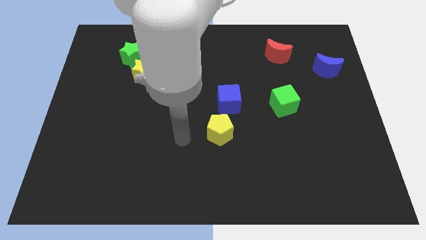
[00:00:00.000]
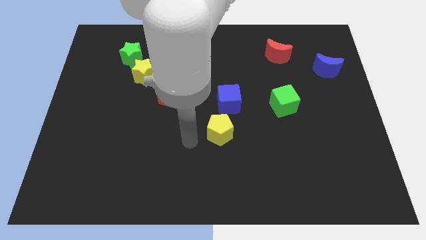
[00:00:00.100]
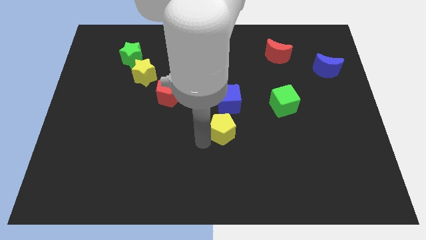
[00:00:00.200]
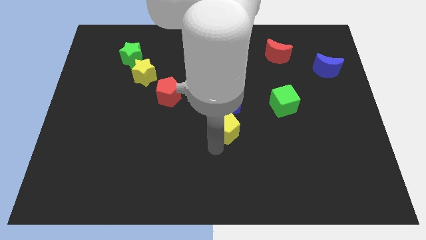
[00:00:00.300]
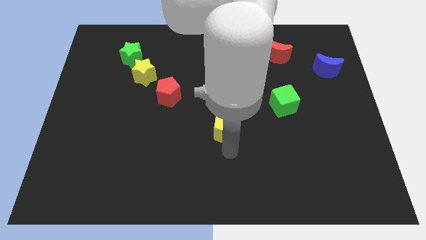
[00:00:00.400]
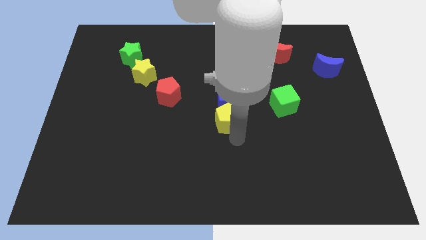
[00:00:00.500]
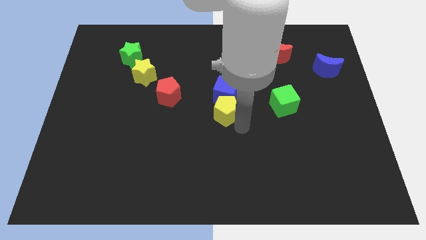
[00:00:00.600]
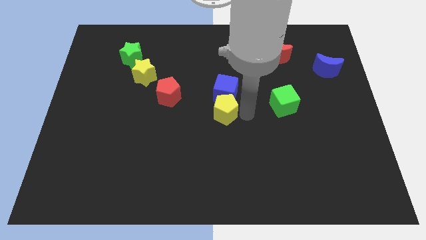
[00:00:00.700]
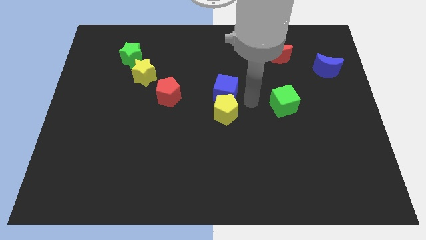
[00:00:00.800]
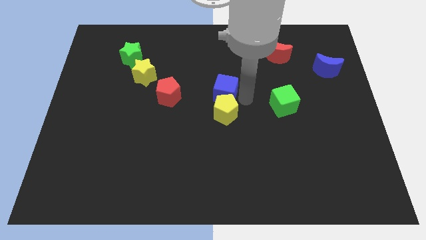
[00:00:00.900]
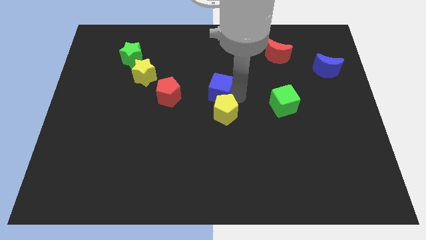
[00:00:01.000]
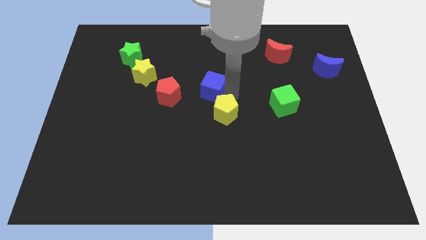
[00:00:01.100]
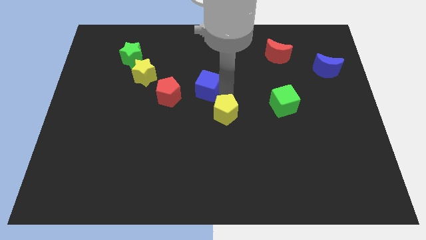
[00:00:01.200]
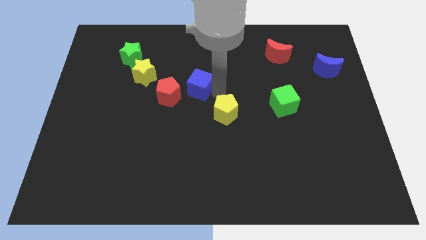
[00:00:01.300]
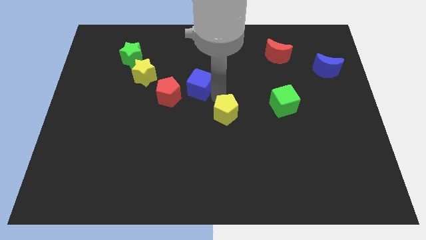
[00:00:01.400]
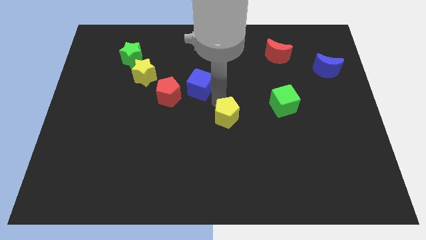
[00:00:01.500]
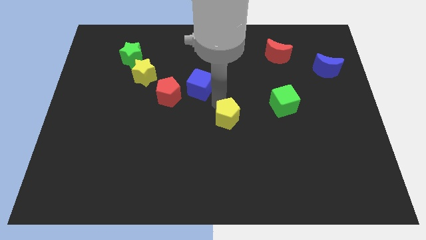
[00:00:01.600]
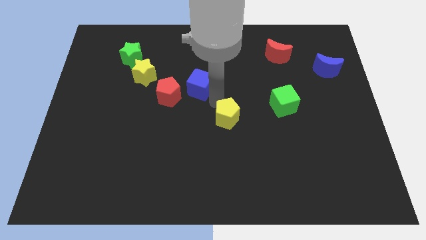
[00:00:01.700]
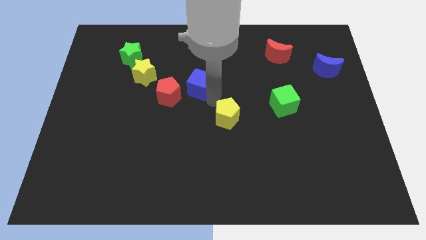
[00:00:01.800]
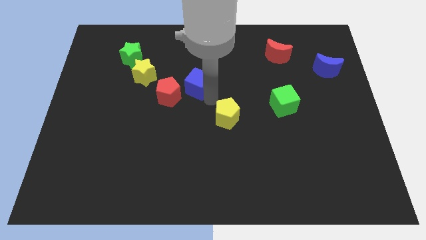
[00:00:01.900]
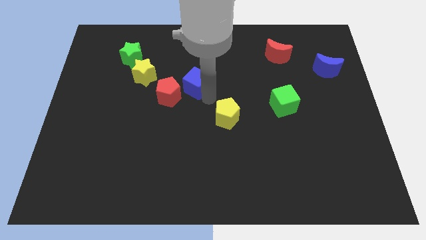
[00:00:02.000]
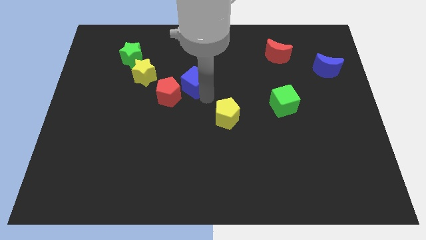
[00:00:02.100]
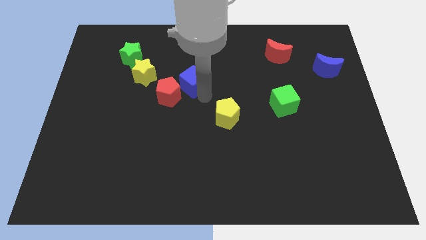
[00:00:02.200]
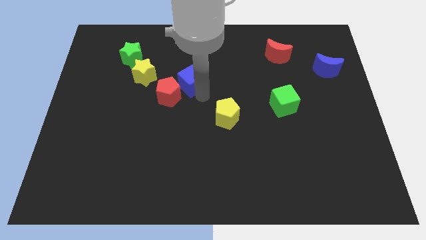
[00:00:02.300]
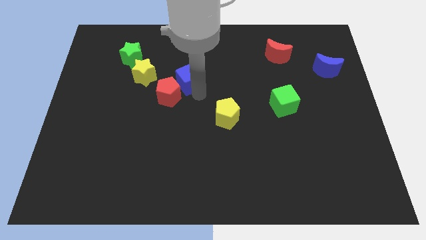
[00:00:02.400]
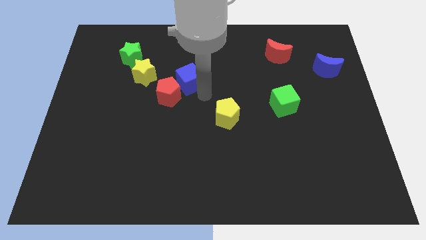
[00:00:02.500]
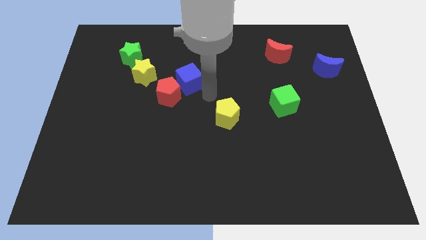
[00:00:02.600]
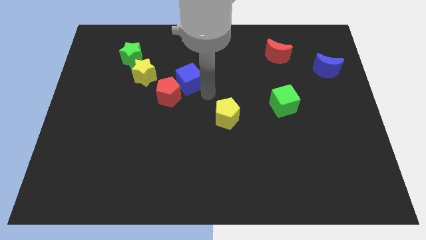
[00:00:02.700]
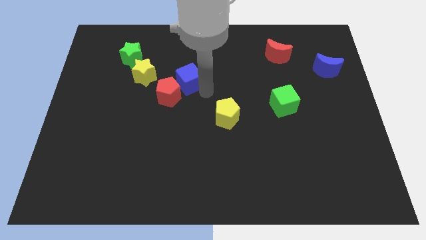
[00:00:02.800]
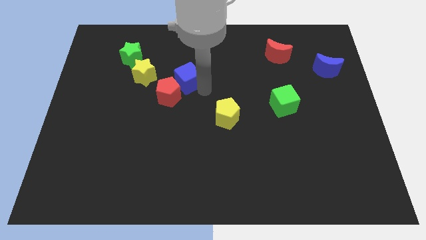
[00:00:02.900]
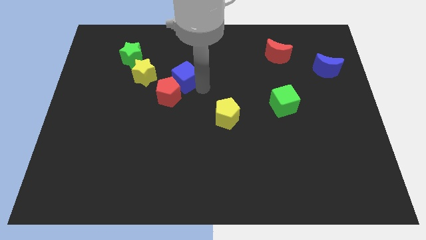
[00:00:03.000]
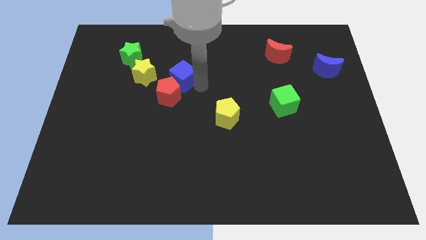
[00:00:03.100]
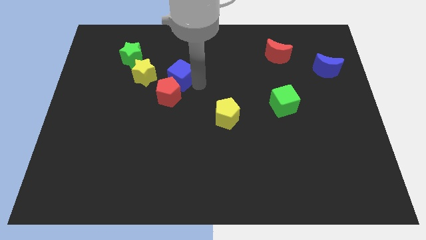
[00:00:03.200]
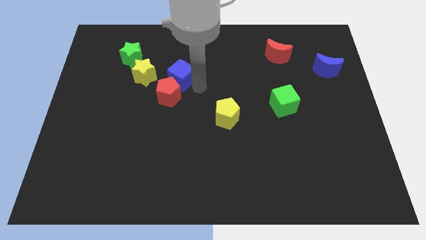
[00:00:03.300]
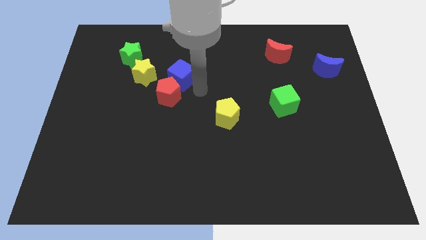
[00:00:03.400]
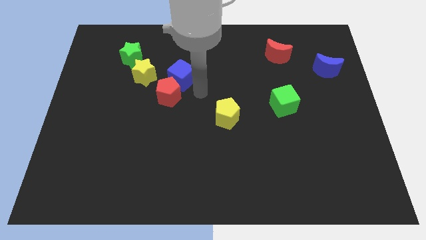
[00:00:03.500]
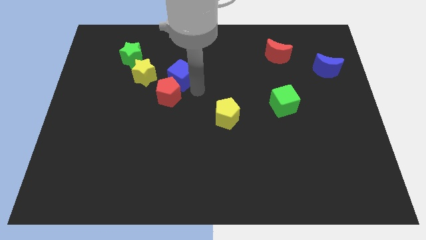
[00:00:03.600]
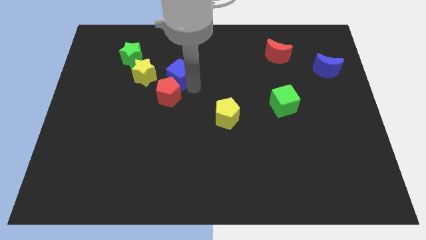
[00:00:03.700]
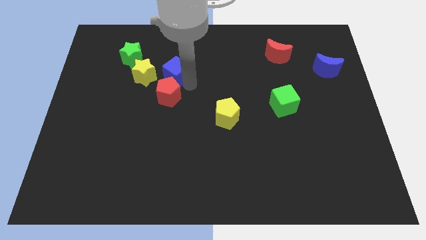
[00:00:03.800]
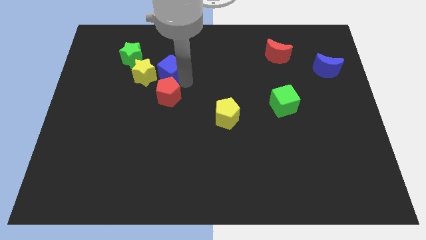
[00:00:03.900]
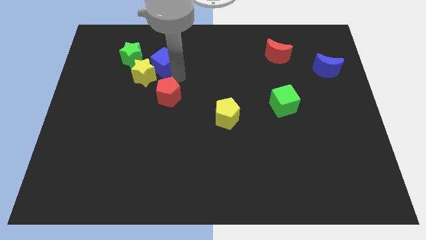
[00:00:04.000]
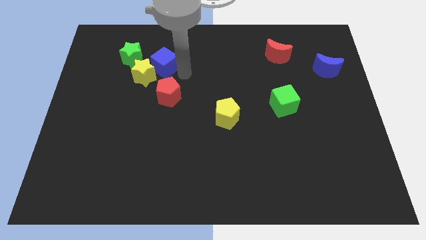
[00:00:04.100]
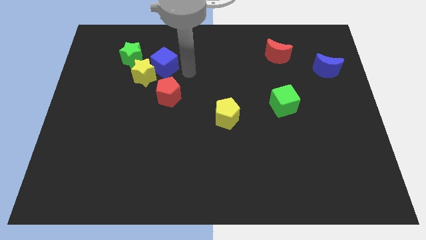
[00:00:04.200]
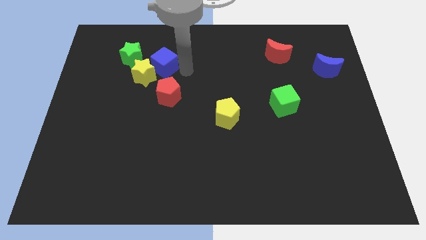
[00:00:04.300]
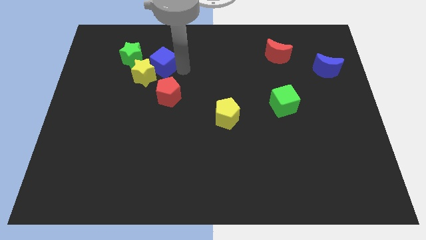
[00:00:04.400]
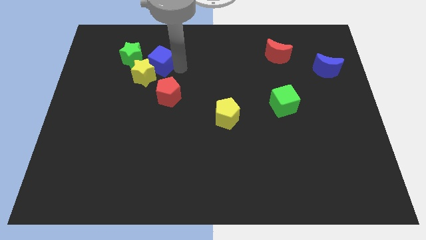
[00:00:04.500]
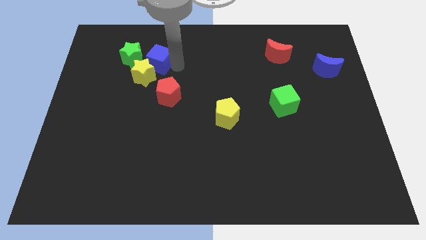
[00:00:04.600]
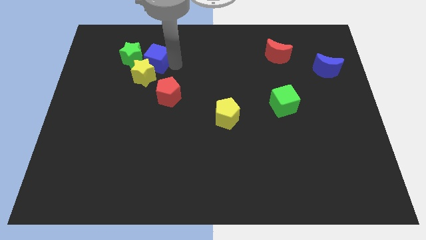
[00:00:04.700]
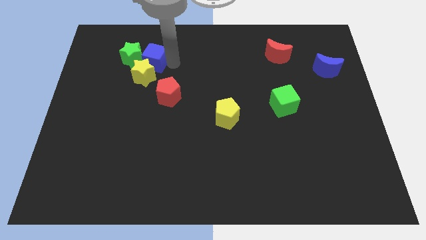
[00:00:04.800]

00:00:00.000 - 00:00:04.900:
slide the blue cube towards the green star

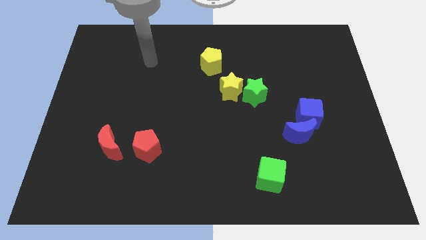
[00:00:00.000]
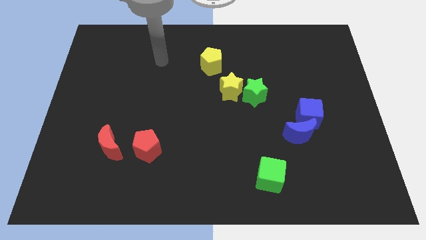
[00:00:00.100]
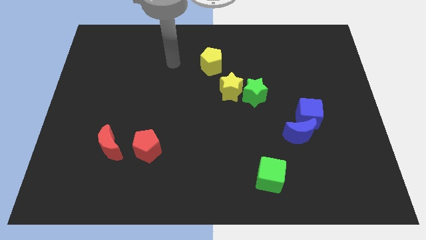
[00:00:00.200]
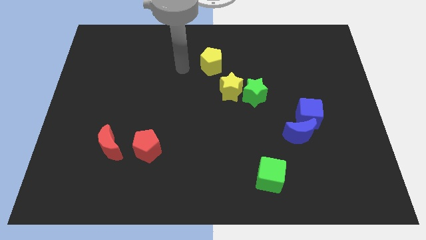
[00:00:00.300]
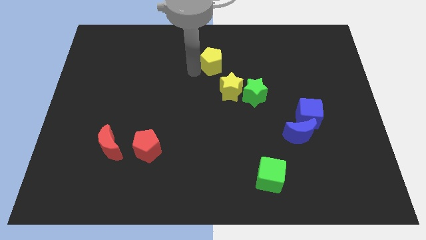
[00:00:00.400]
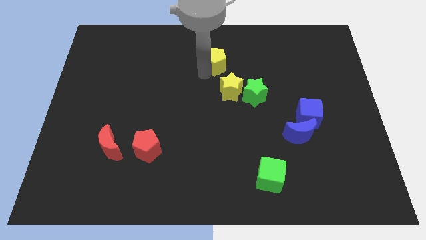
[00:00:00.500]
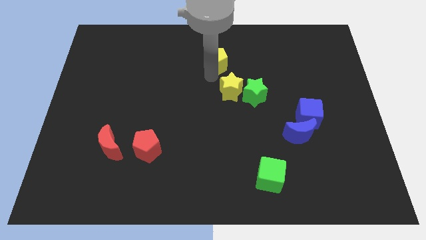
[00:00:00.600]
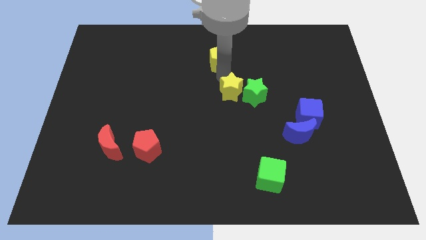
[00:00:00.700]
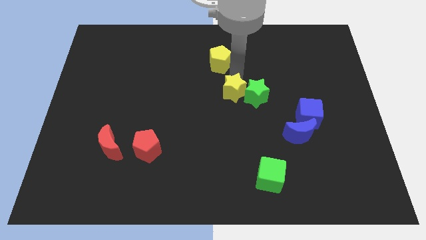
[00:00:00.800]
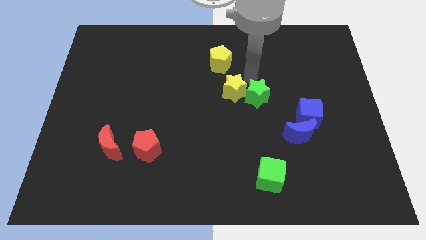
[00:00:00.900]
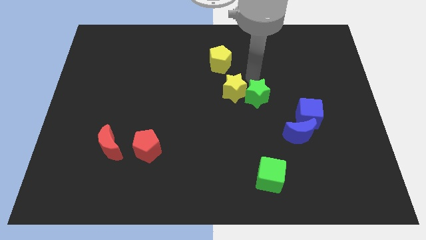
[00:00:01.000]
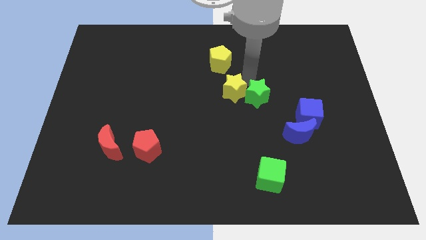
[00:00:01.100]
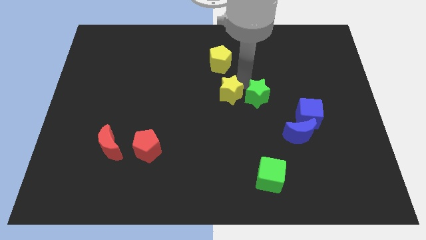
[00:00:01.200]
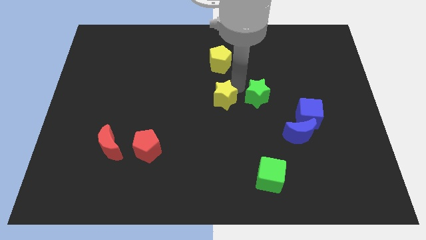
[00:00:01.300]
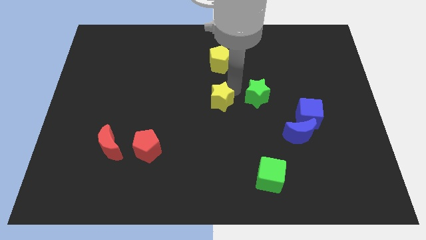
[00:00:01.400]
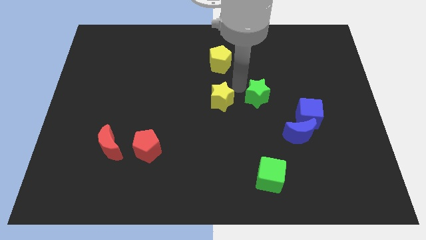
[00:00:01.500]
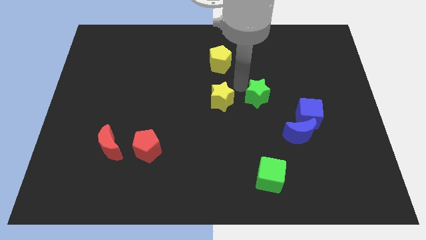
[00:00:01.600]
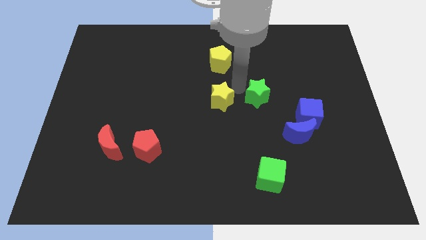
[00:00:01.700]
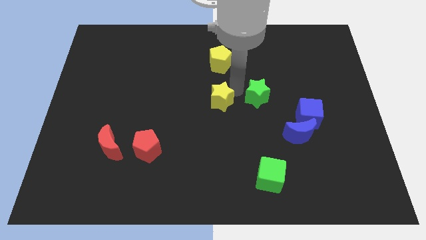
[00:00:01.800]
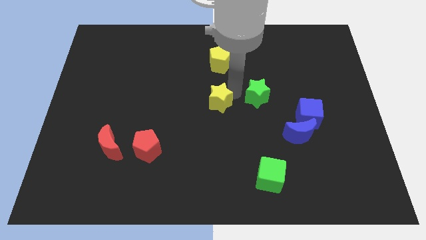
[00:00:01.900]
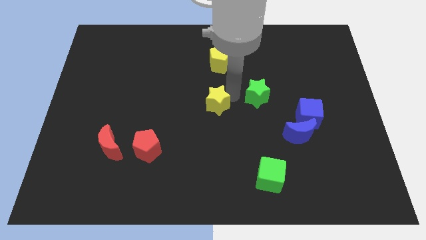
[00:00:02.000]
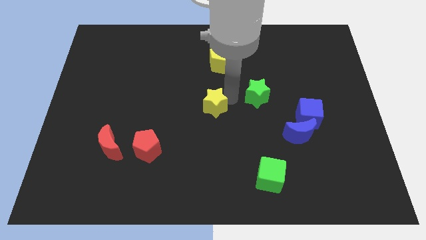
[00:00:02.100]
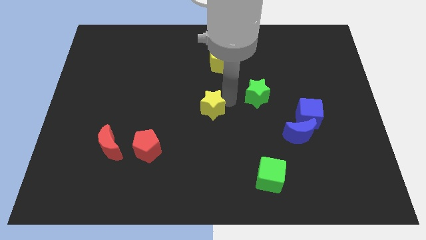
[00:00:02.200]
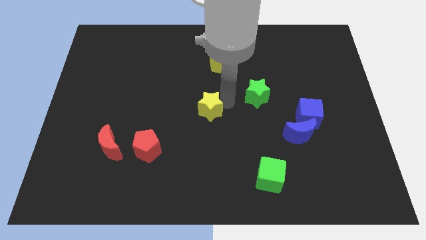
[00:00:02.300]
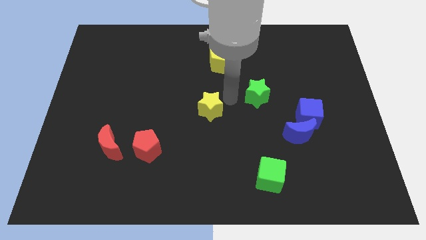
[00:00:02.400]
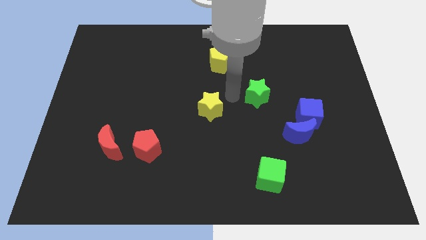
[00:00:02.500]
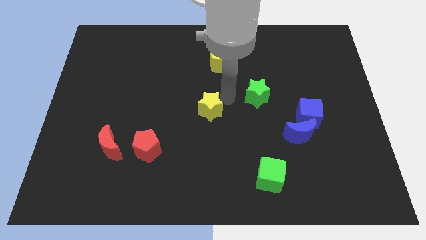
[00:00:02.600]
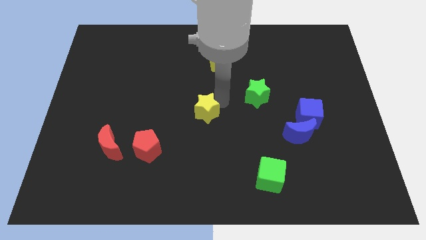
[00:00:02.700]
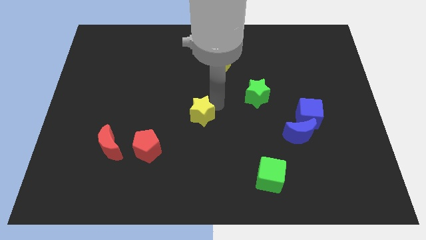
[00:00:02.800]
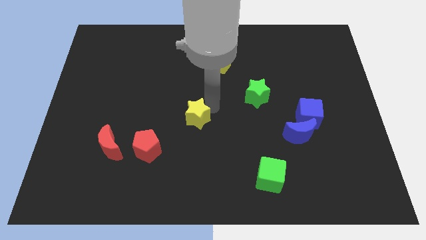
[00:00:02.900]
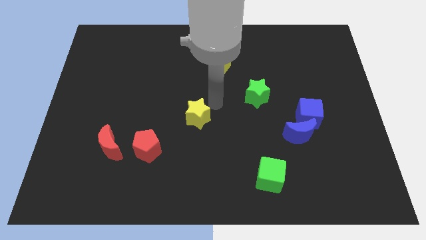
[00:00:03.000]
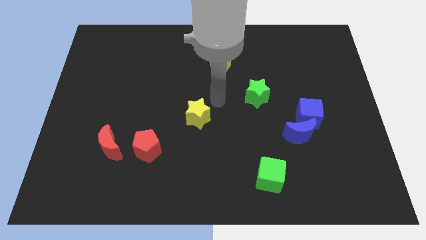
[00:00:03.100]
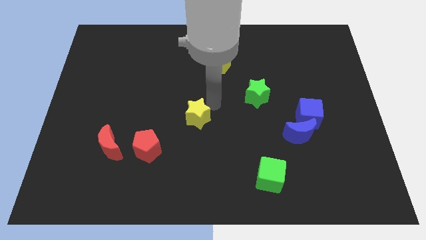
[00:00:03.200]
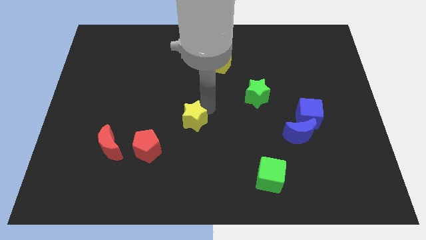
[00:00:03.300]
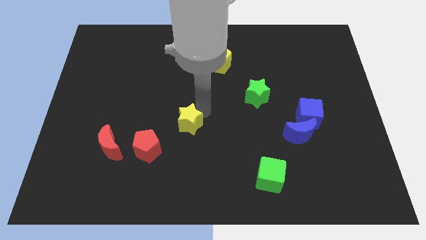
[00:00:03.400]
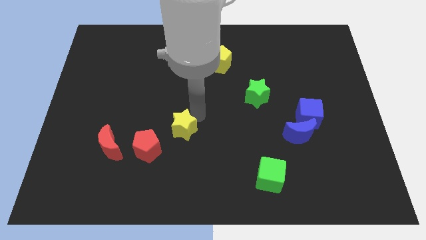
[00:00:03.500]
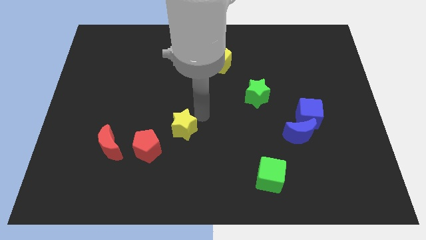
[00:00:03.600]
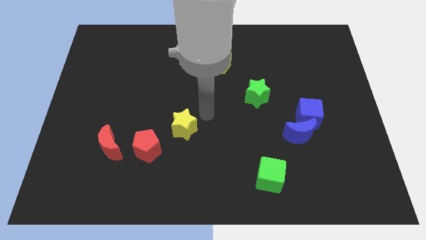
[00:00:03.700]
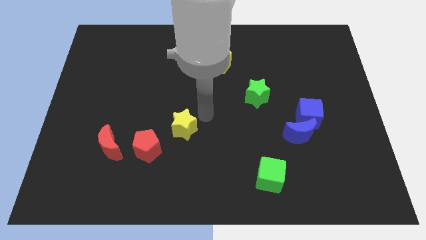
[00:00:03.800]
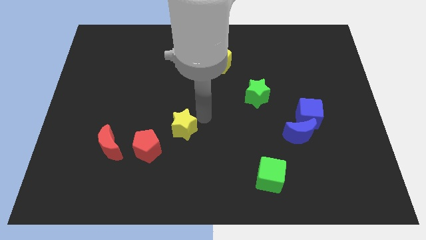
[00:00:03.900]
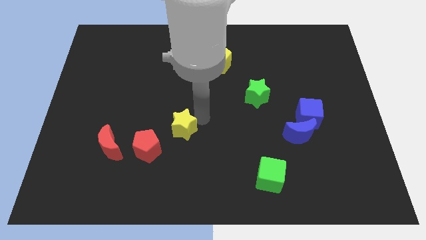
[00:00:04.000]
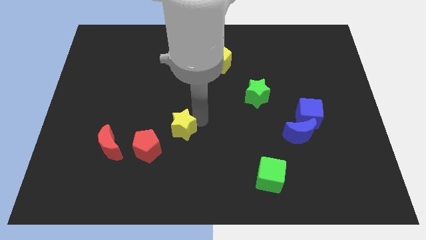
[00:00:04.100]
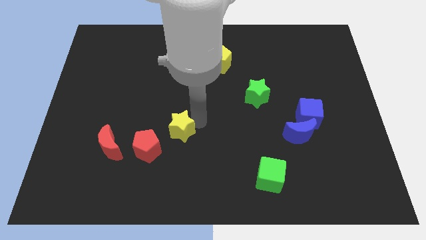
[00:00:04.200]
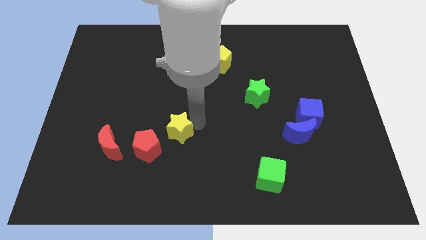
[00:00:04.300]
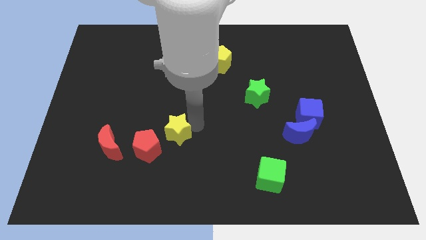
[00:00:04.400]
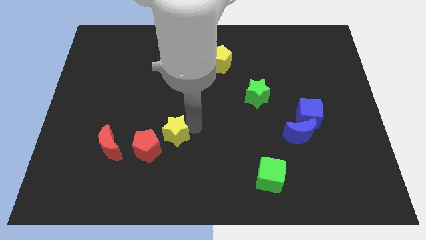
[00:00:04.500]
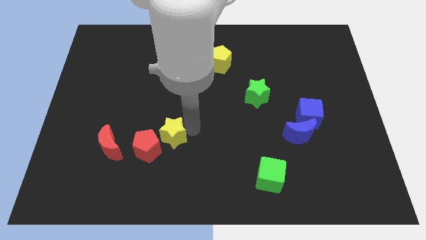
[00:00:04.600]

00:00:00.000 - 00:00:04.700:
move the yellow star next to the red pentagon
